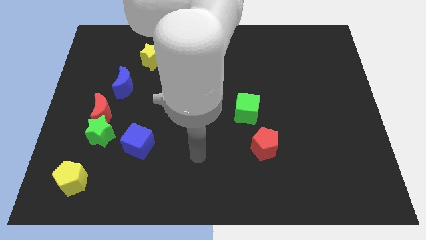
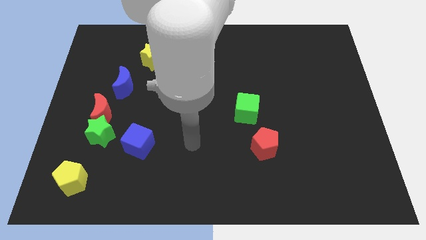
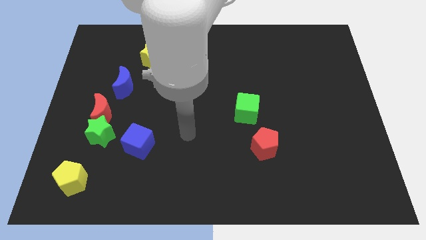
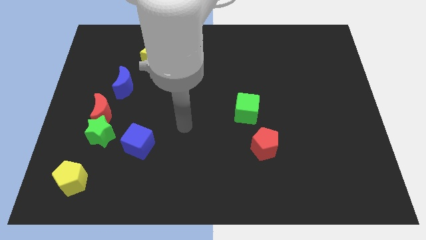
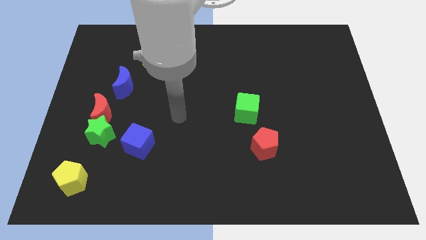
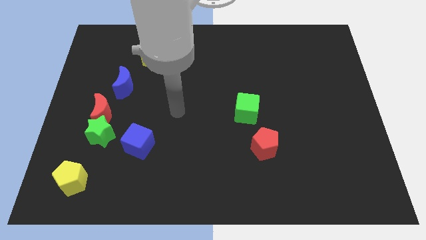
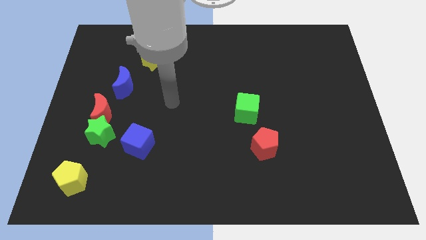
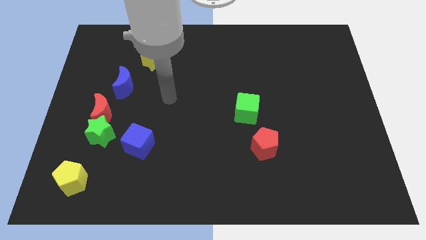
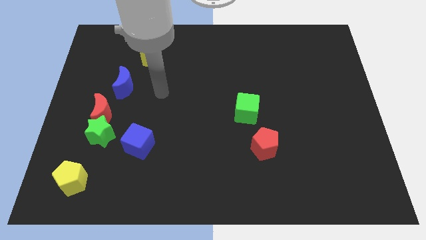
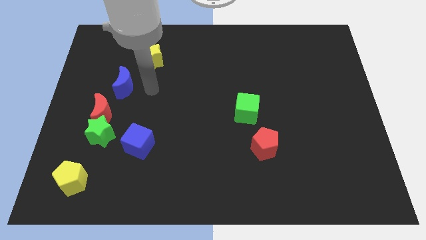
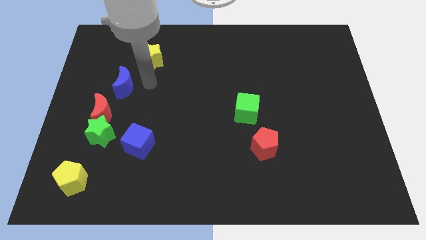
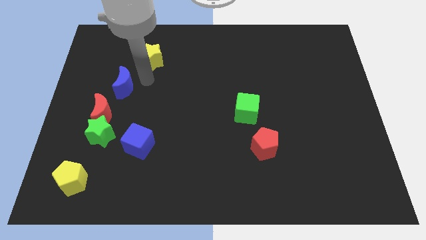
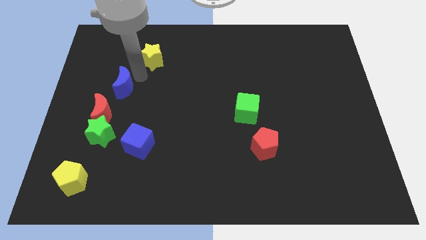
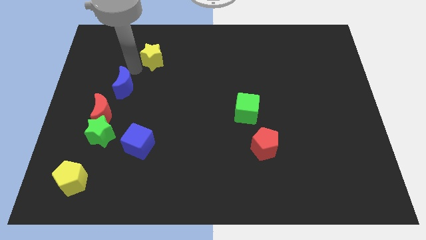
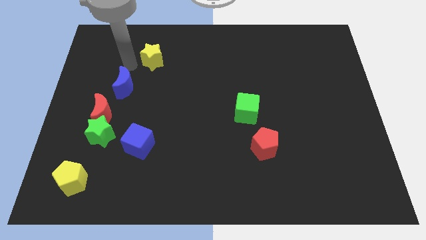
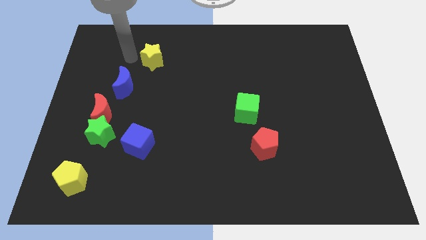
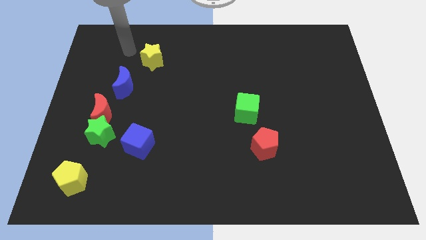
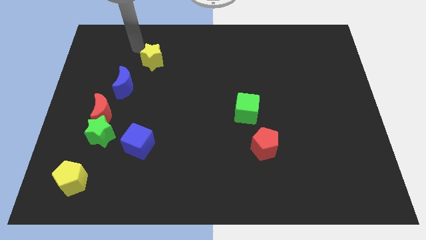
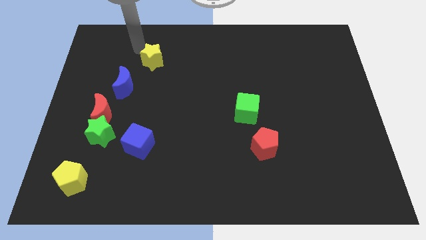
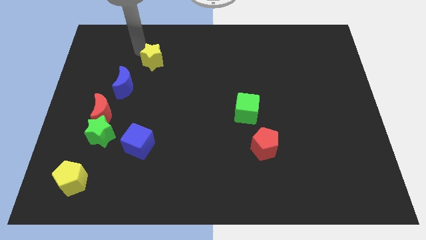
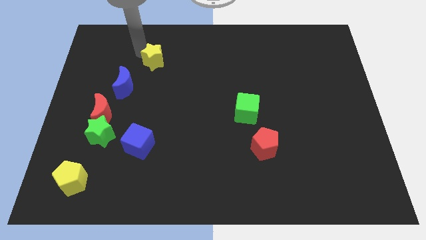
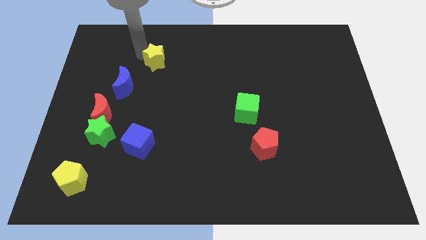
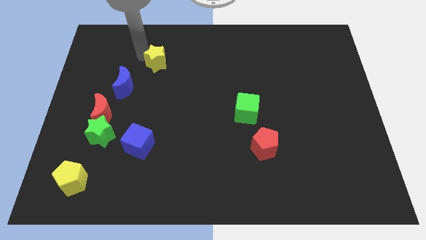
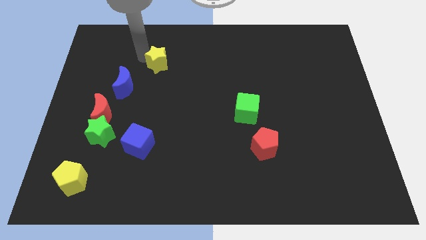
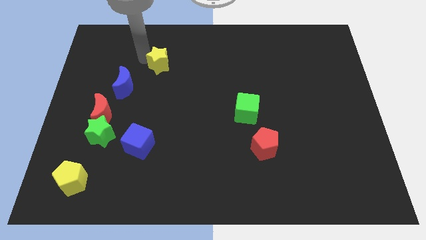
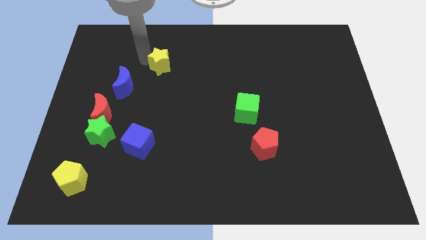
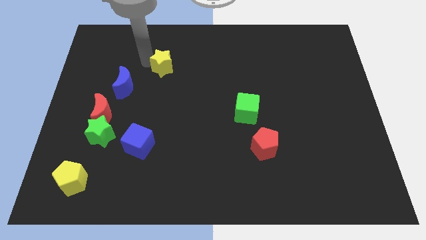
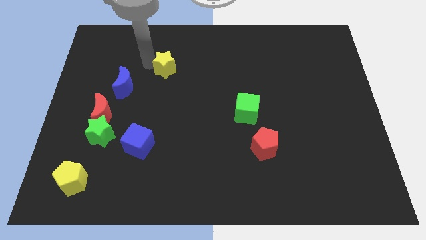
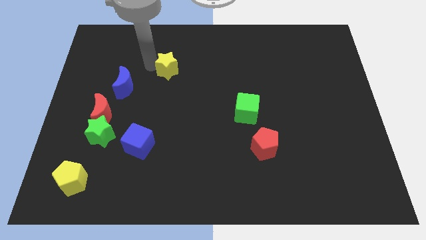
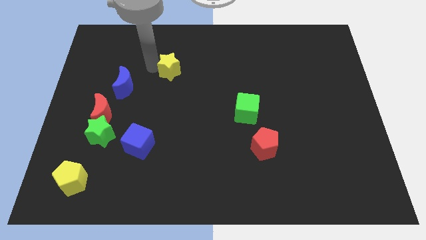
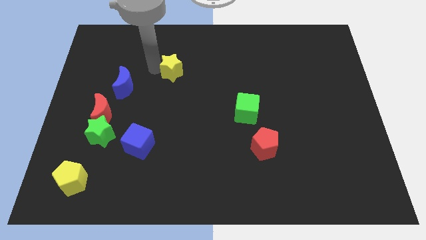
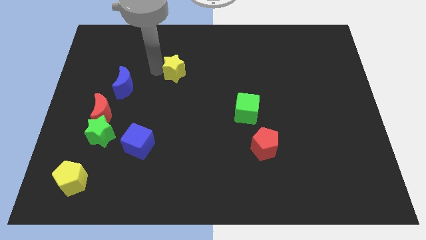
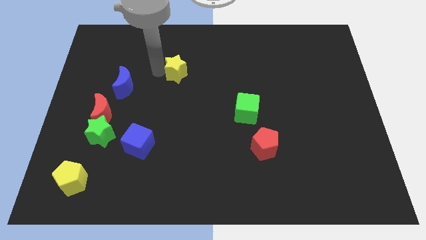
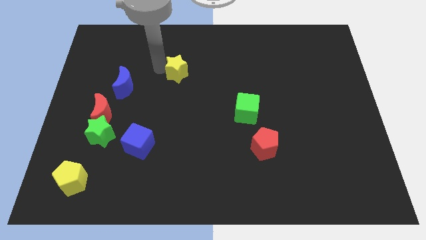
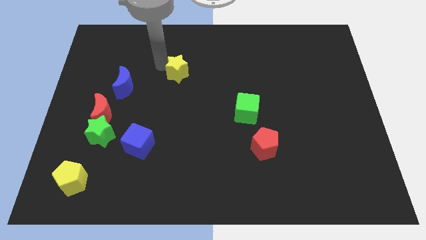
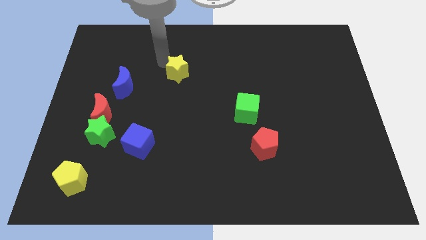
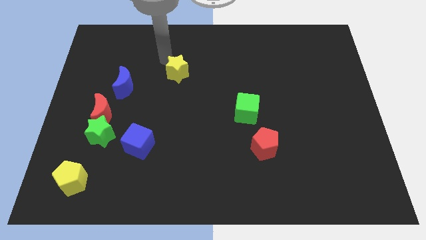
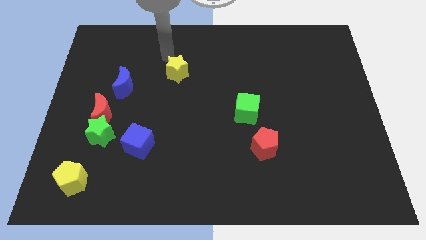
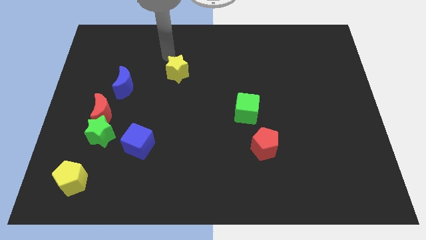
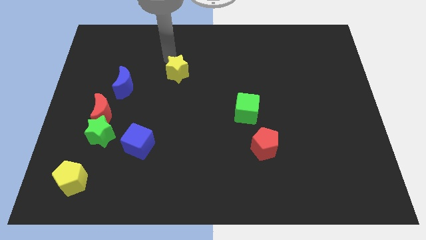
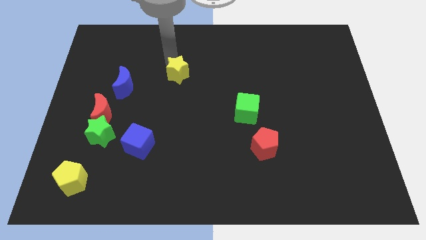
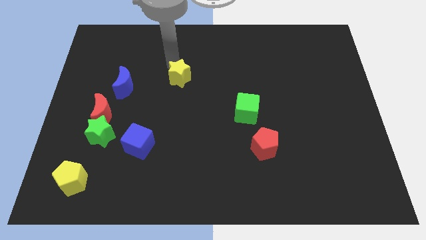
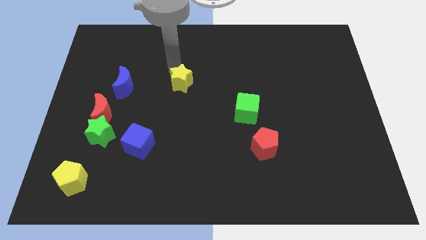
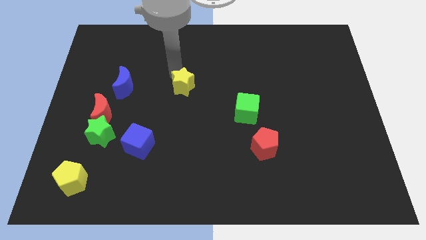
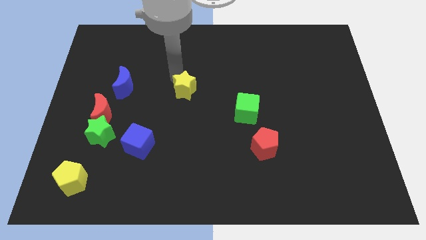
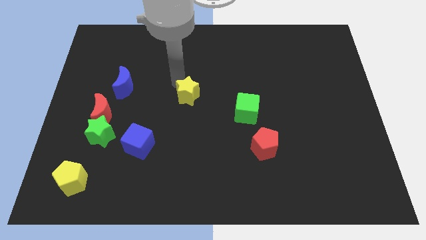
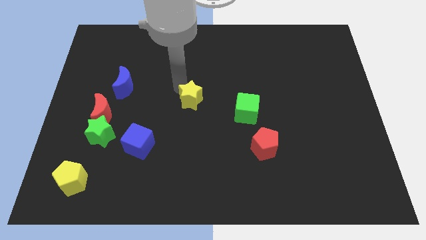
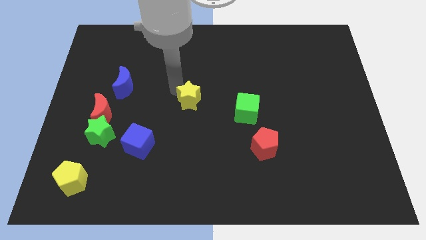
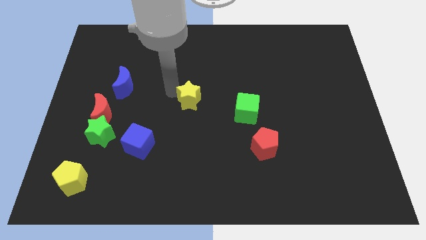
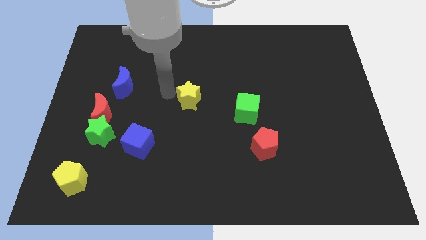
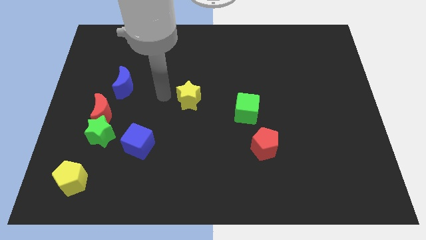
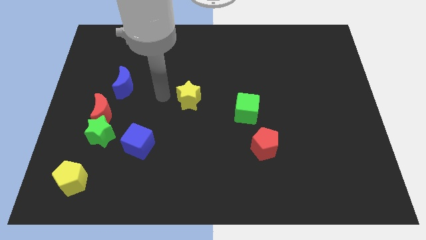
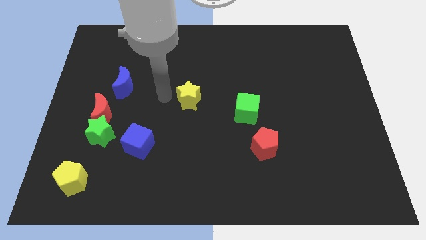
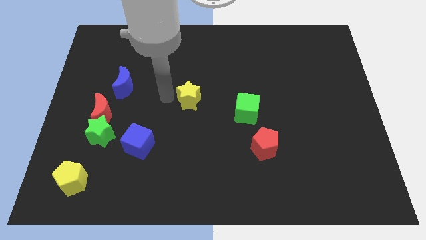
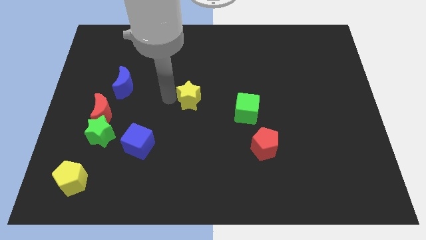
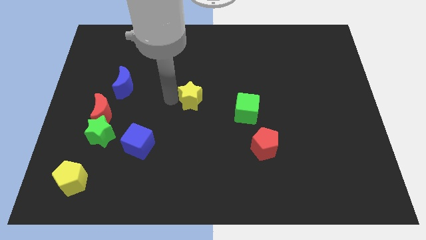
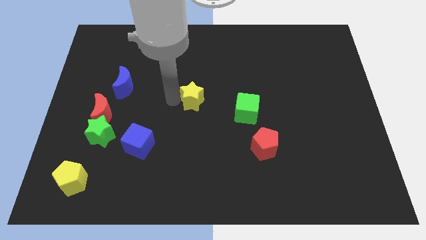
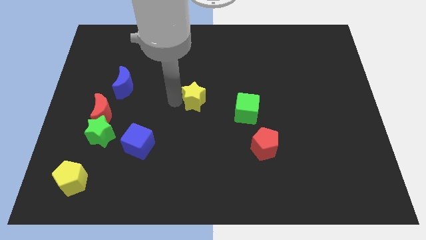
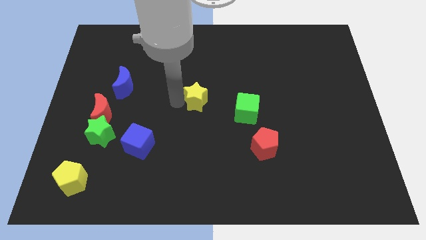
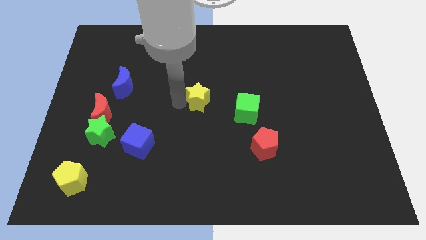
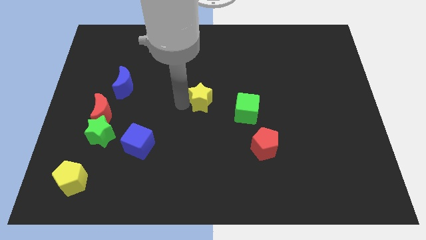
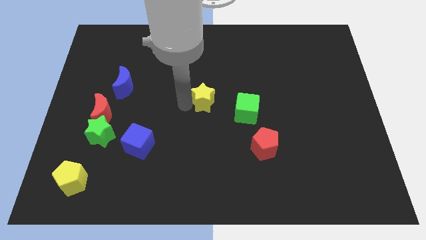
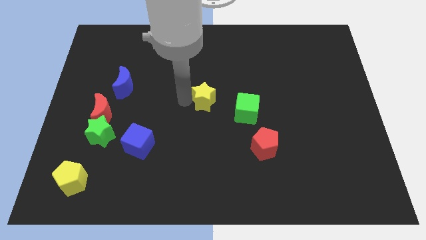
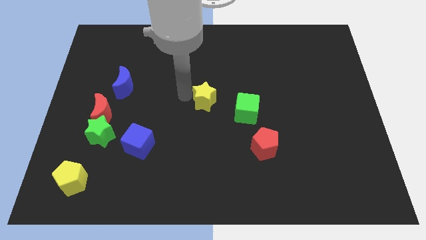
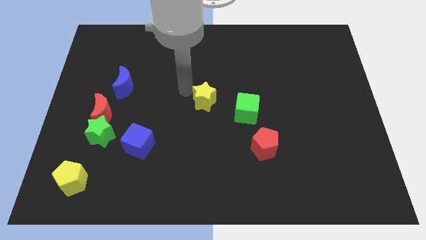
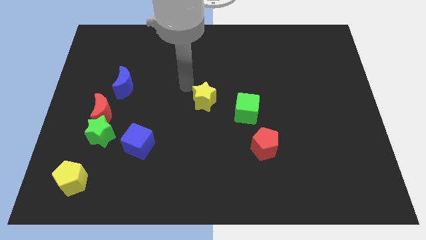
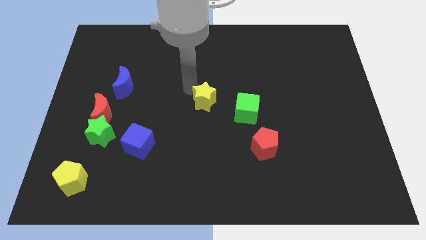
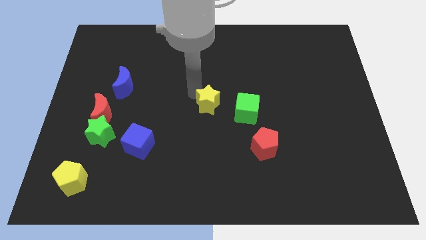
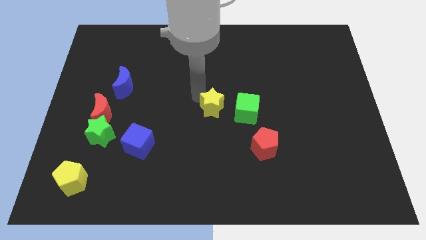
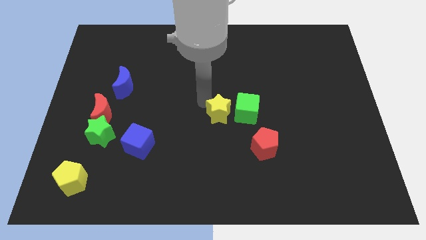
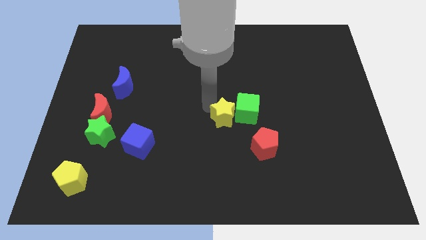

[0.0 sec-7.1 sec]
slide the yellow star to the top left side of the red pentagon
